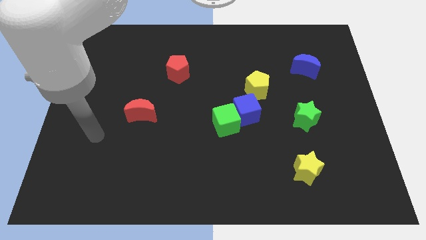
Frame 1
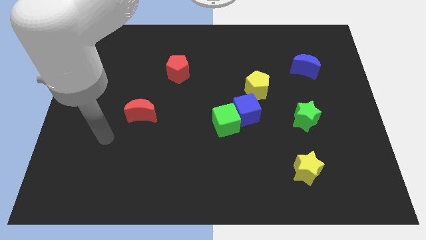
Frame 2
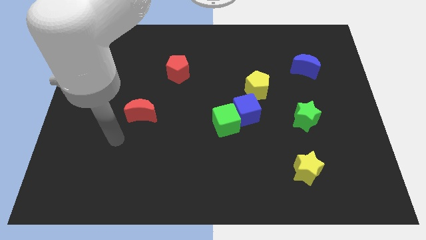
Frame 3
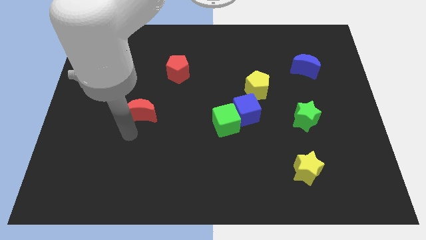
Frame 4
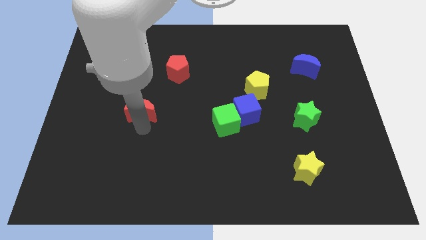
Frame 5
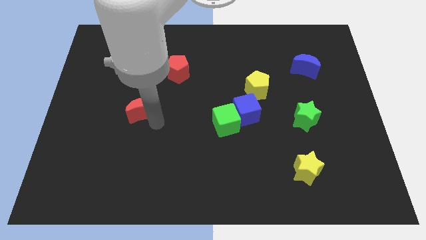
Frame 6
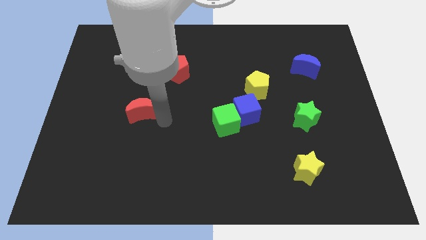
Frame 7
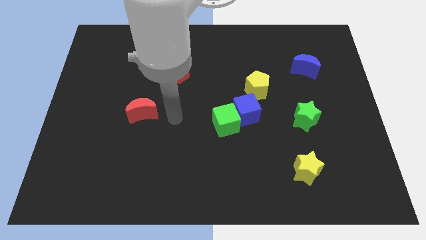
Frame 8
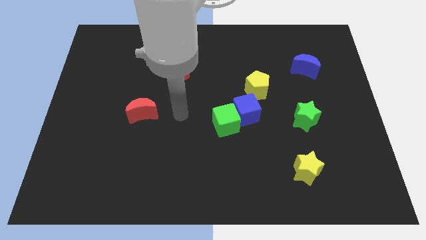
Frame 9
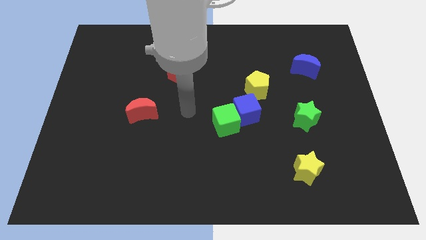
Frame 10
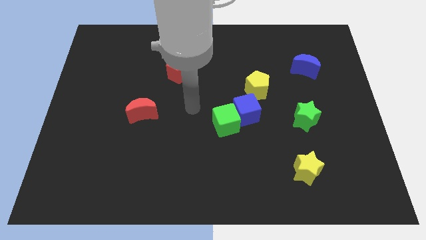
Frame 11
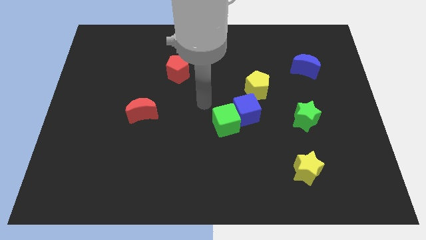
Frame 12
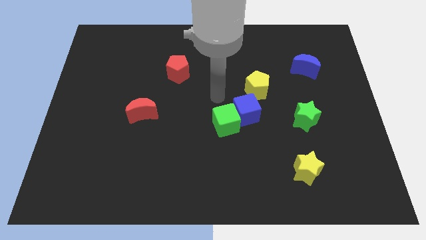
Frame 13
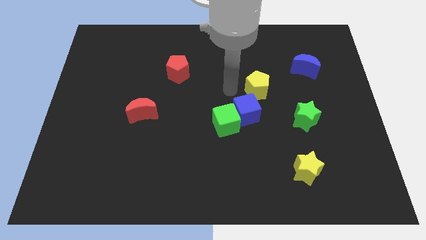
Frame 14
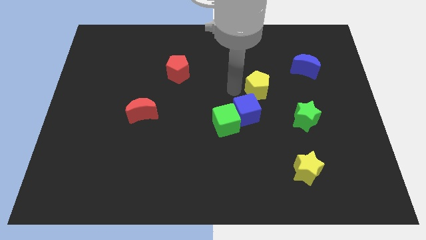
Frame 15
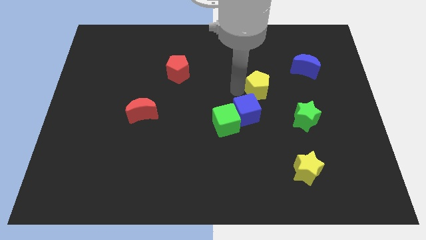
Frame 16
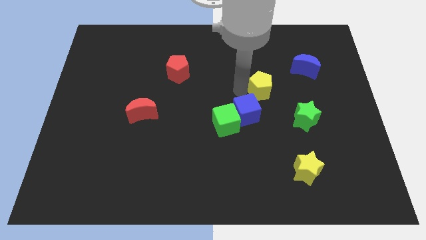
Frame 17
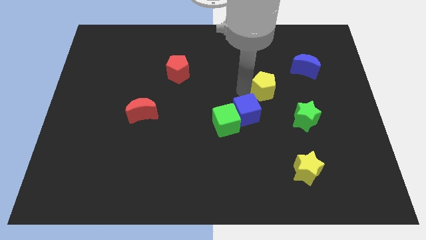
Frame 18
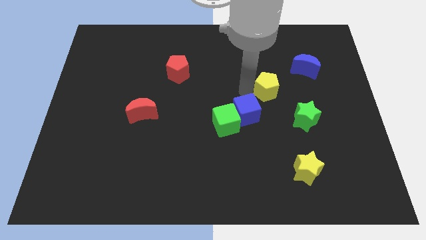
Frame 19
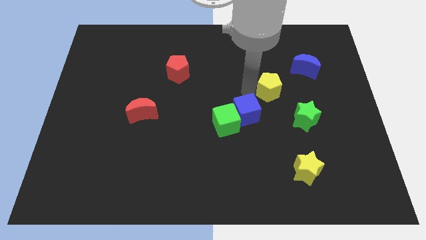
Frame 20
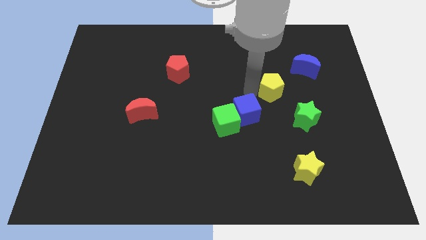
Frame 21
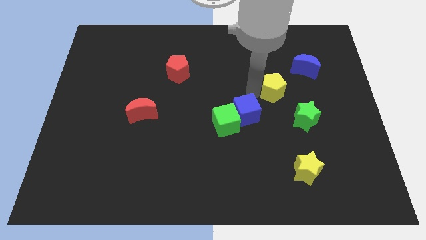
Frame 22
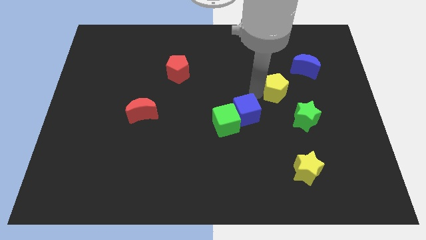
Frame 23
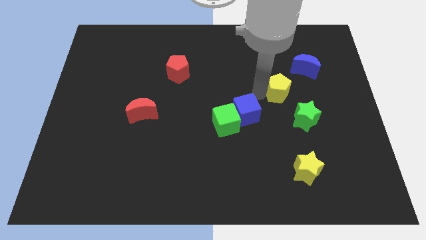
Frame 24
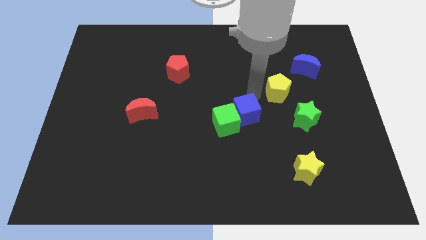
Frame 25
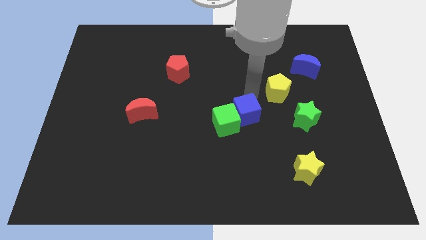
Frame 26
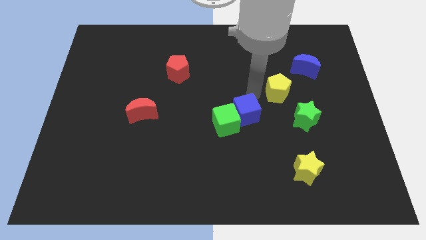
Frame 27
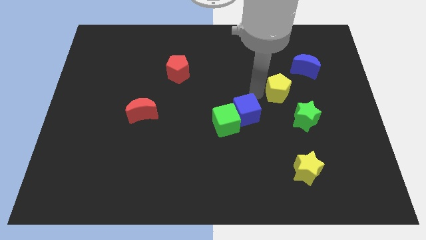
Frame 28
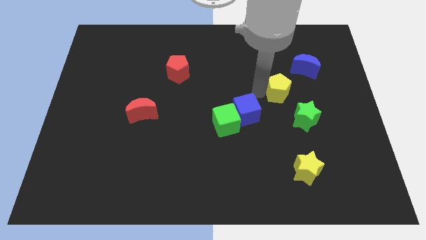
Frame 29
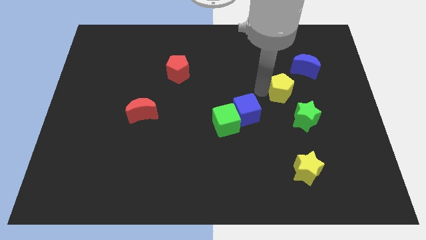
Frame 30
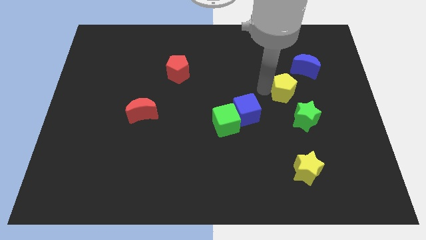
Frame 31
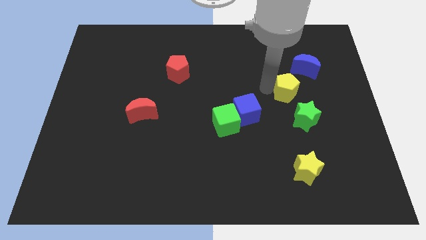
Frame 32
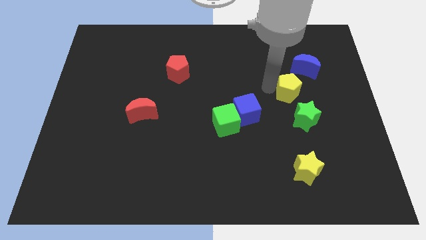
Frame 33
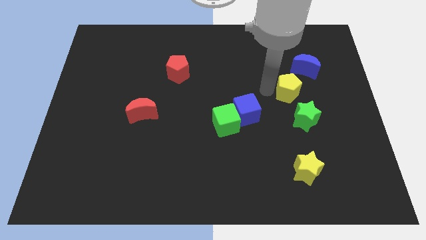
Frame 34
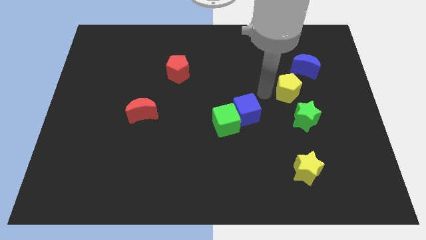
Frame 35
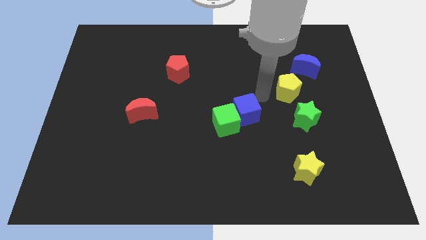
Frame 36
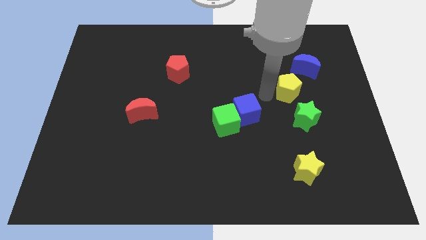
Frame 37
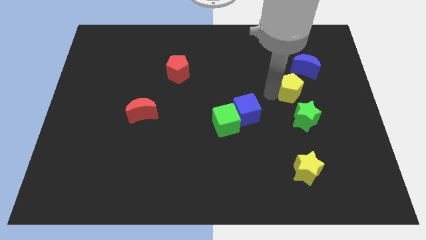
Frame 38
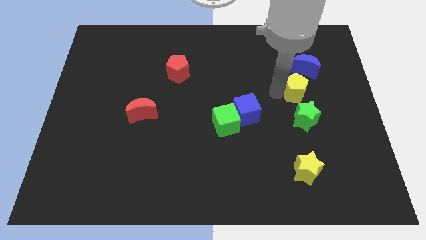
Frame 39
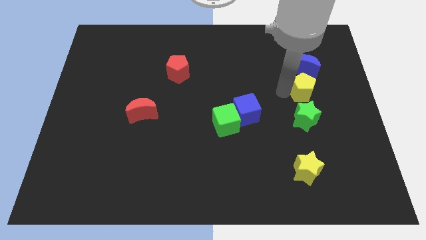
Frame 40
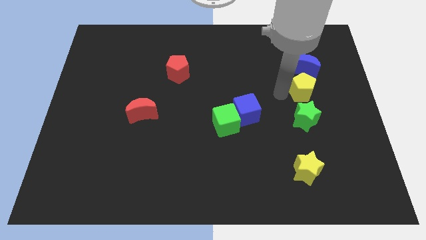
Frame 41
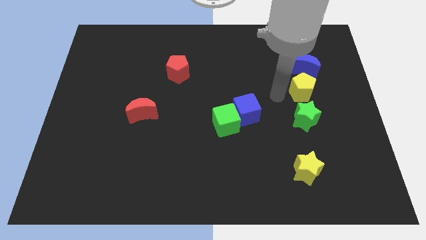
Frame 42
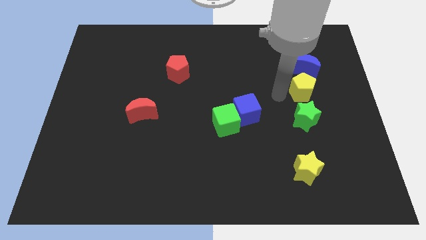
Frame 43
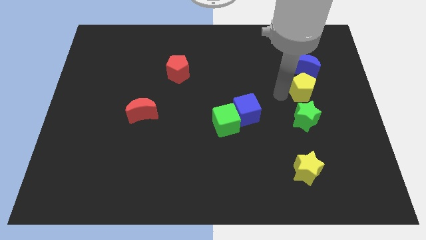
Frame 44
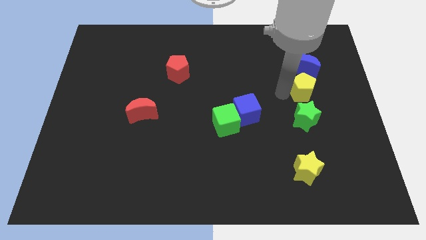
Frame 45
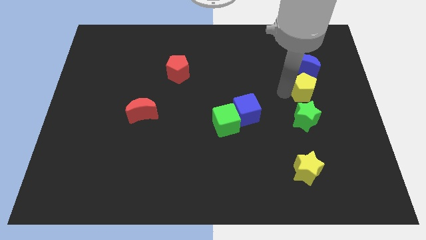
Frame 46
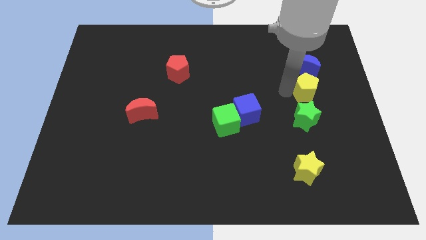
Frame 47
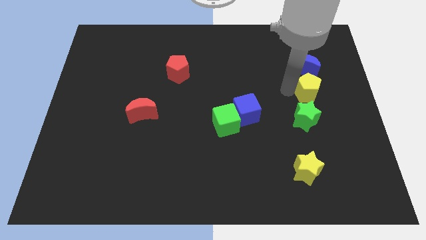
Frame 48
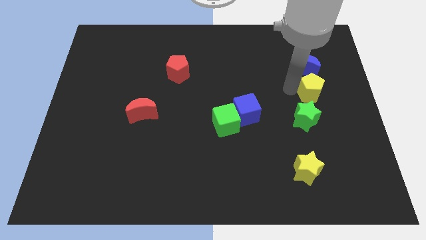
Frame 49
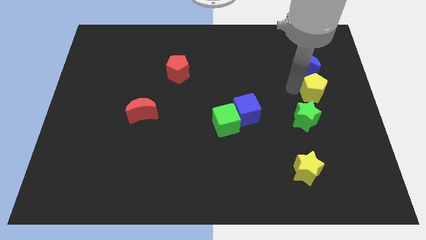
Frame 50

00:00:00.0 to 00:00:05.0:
push the yellow pentagon diagonally down and to the right of the blue moon

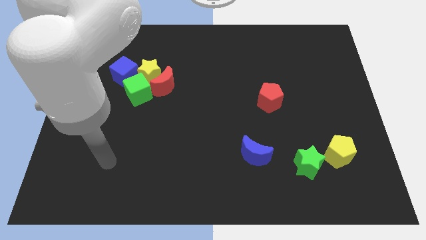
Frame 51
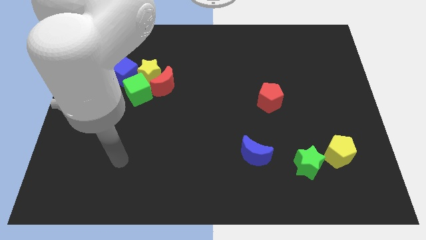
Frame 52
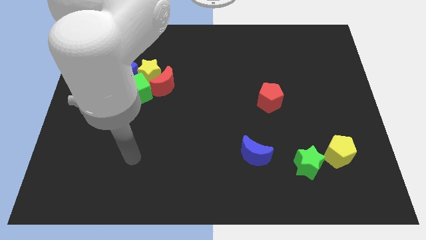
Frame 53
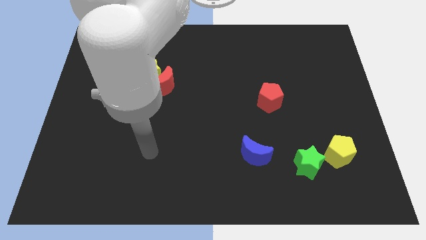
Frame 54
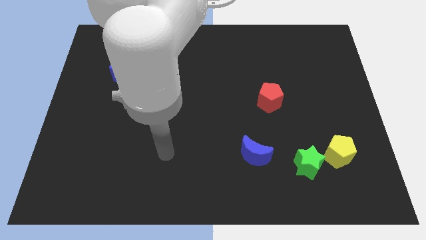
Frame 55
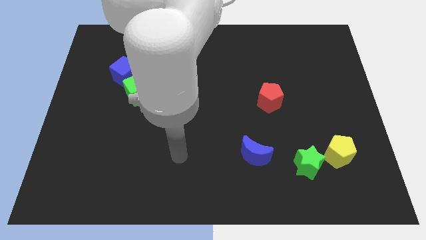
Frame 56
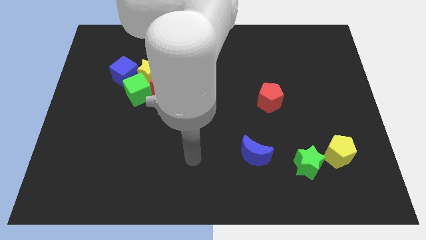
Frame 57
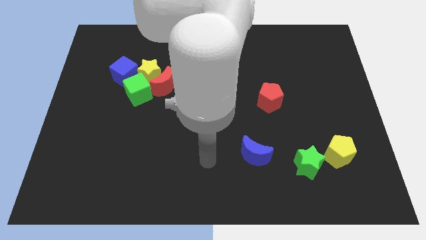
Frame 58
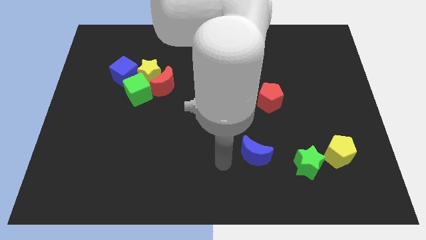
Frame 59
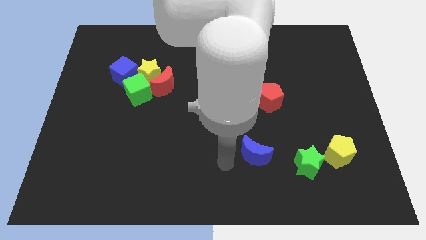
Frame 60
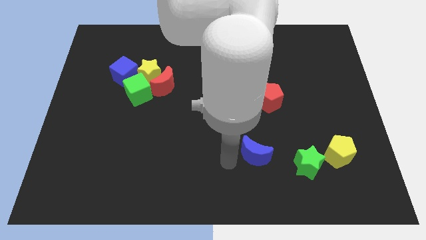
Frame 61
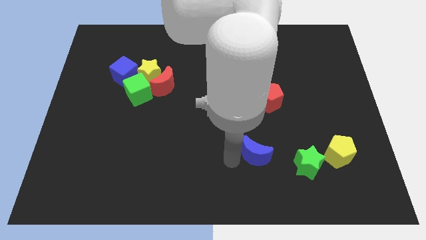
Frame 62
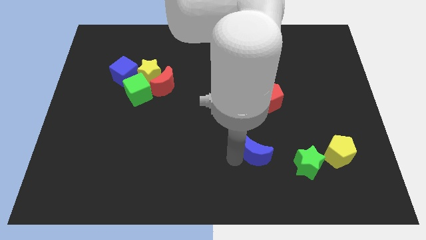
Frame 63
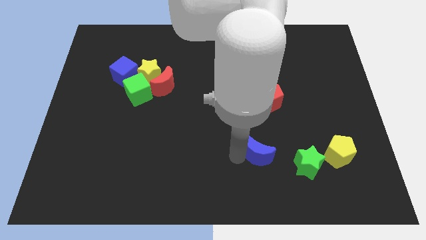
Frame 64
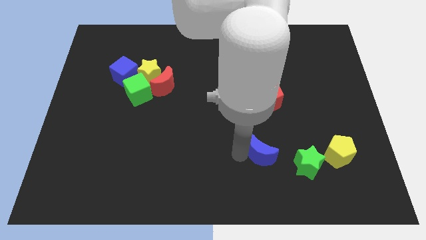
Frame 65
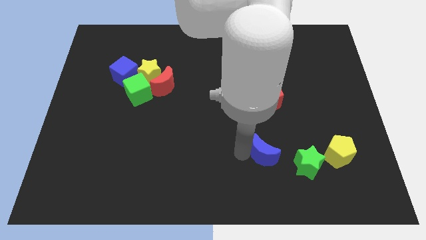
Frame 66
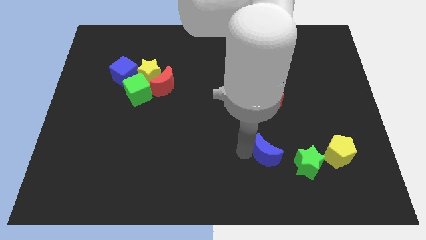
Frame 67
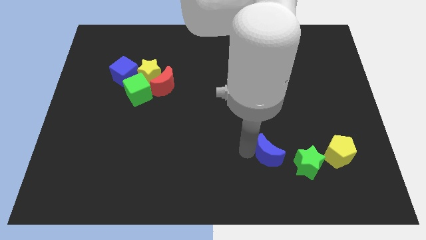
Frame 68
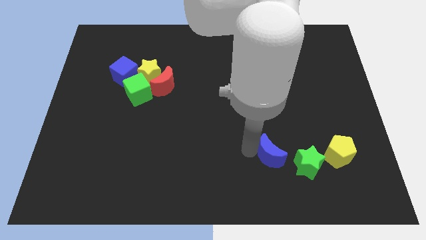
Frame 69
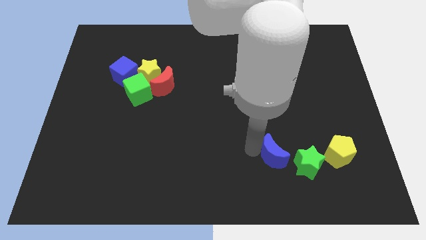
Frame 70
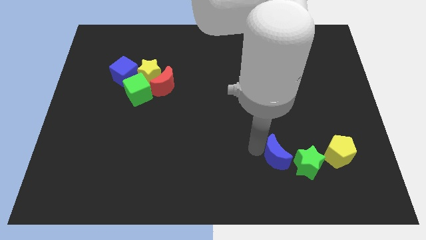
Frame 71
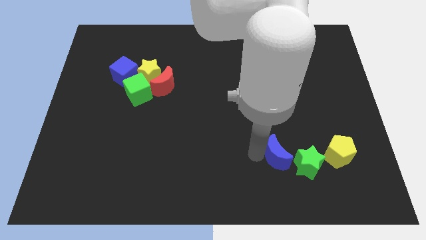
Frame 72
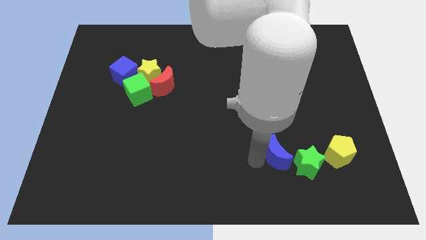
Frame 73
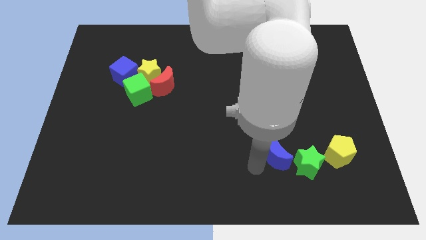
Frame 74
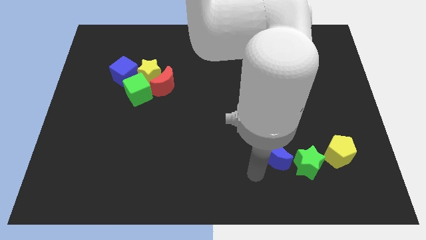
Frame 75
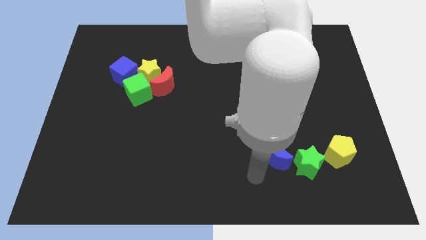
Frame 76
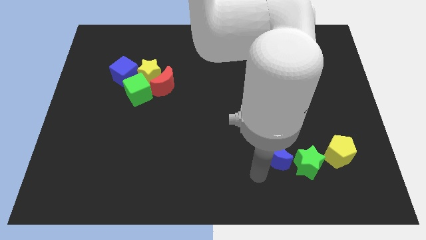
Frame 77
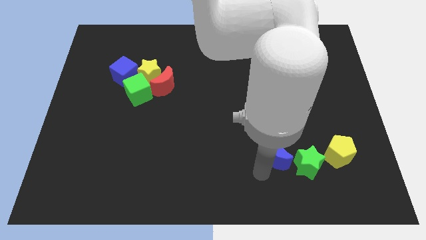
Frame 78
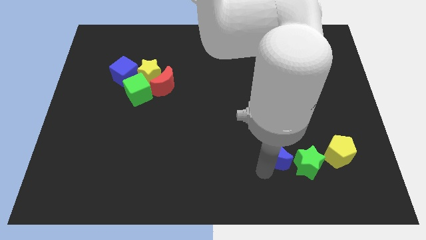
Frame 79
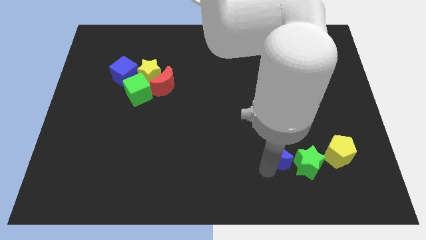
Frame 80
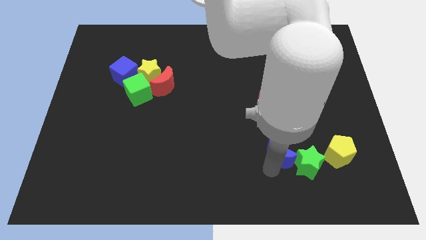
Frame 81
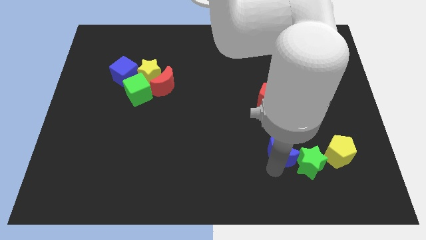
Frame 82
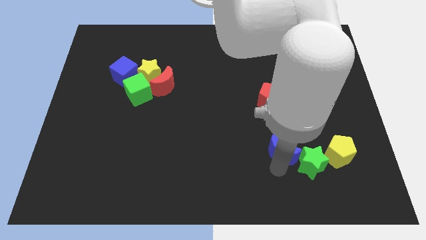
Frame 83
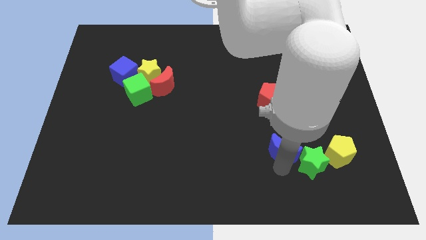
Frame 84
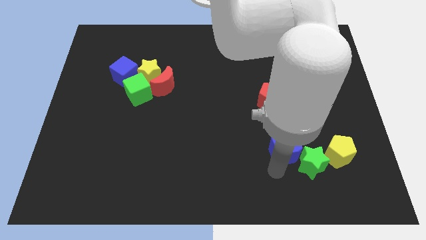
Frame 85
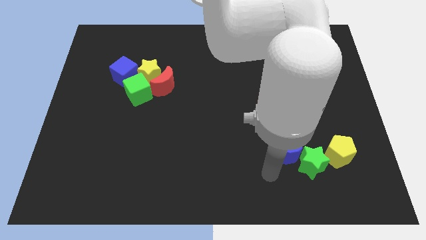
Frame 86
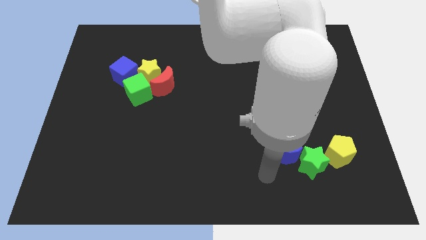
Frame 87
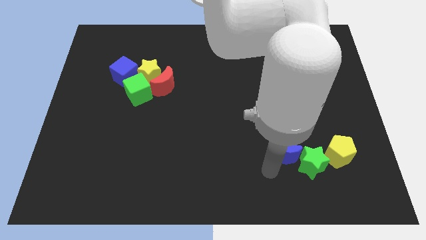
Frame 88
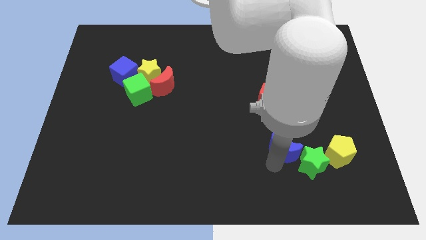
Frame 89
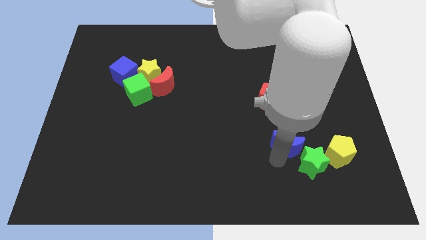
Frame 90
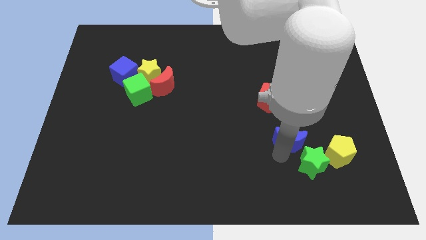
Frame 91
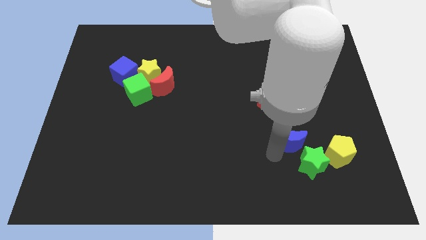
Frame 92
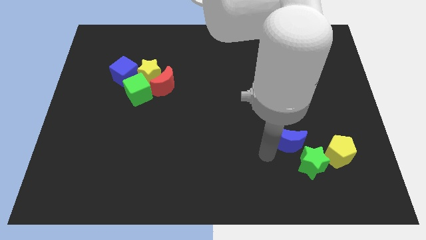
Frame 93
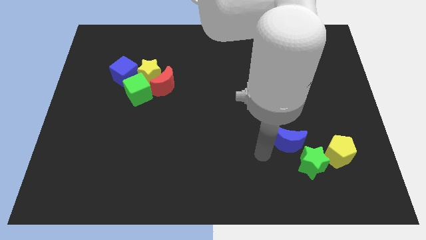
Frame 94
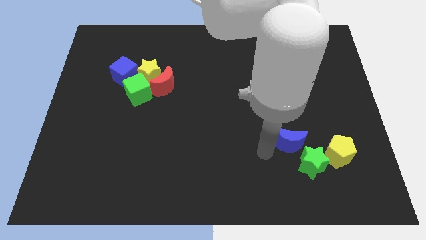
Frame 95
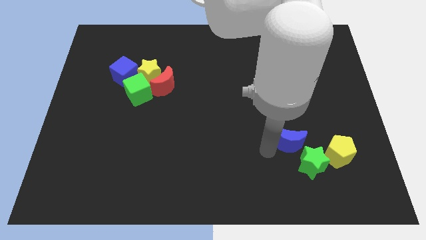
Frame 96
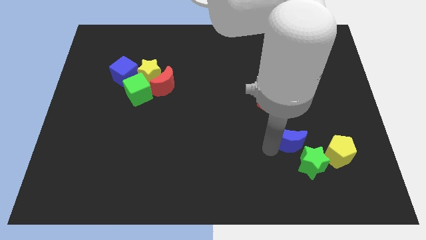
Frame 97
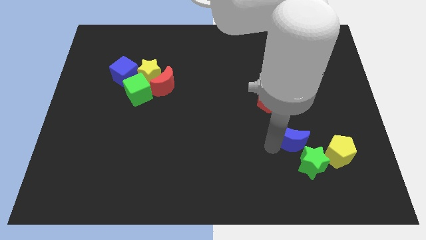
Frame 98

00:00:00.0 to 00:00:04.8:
push the blue moon diagonally up and to the left of the yellow pentagon
